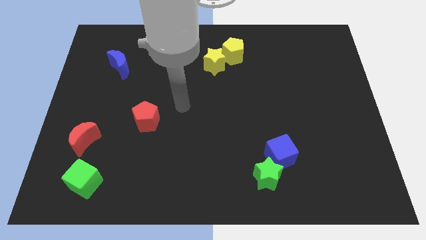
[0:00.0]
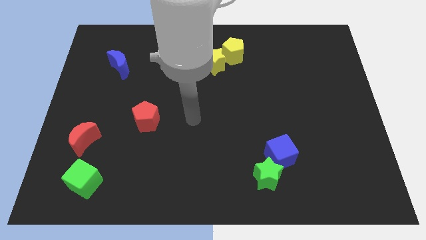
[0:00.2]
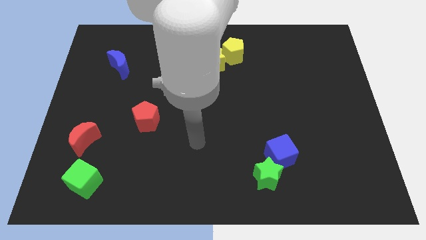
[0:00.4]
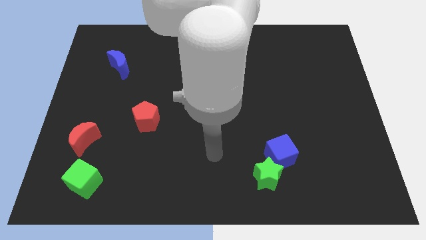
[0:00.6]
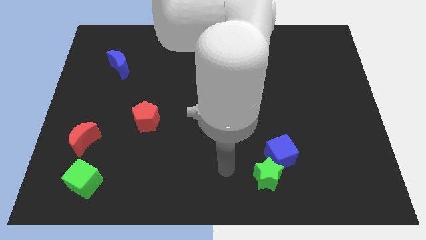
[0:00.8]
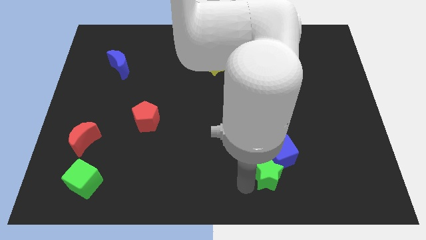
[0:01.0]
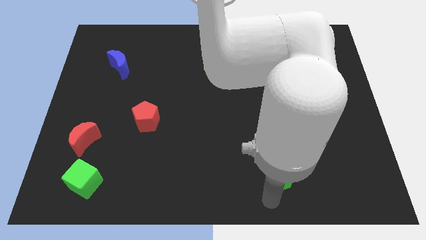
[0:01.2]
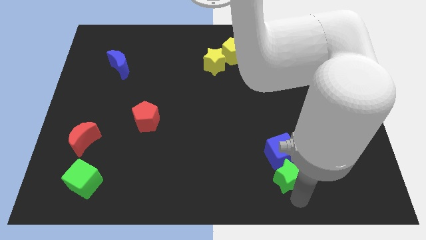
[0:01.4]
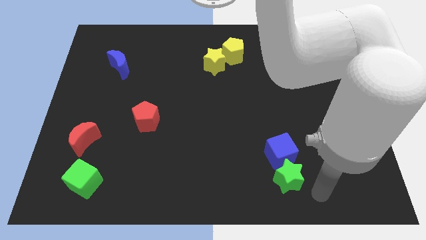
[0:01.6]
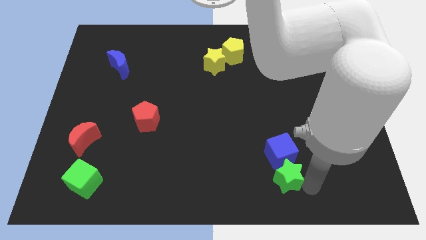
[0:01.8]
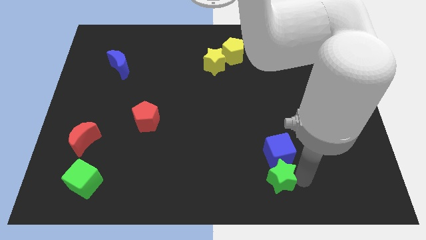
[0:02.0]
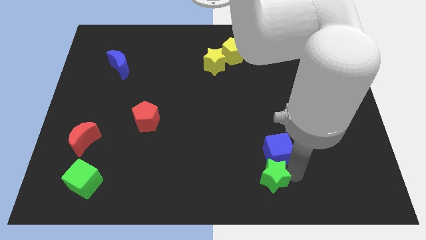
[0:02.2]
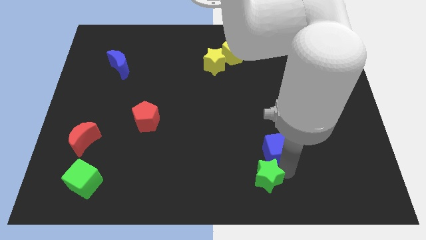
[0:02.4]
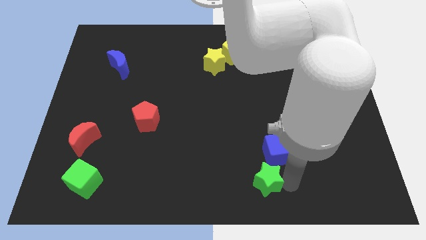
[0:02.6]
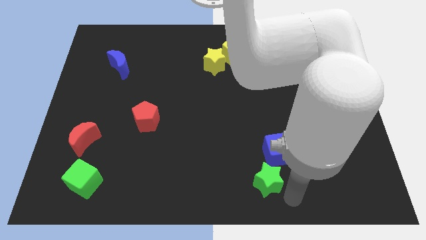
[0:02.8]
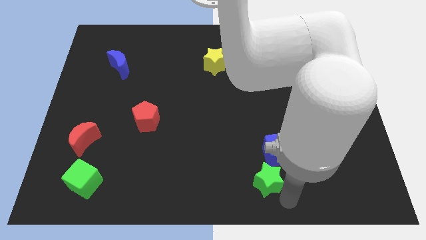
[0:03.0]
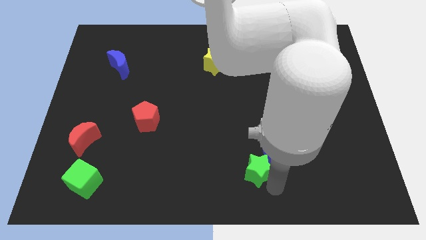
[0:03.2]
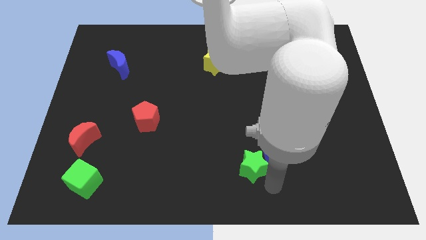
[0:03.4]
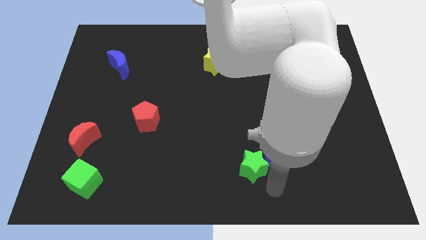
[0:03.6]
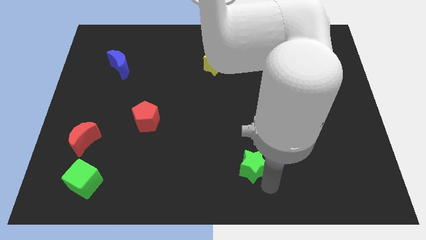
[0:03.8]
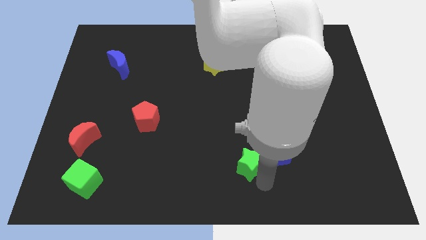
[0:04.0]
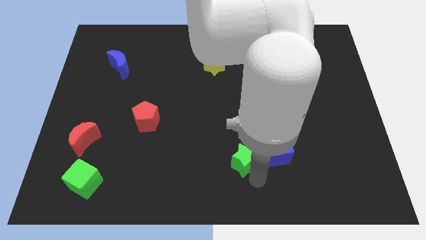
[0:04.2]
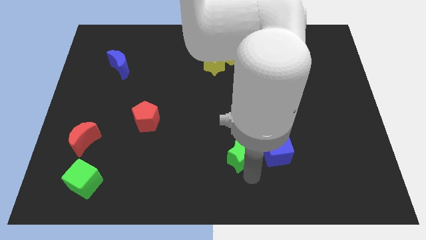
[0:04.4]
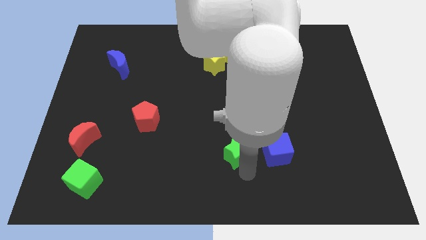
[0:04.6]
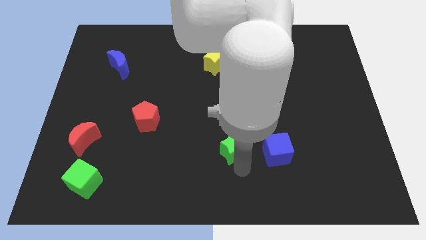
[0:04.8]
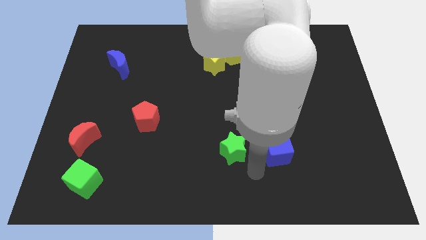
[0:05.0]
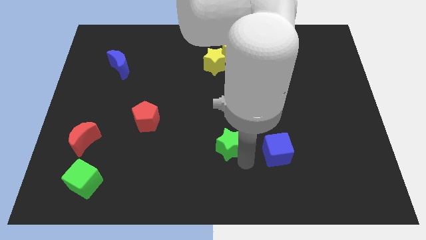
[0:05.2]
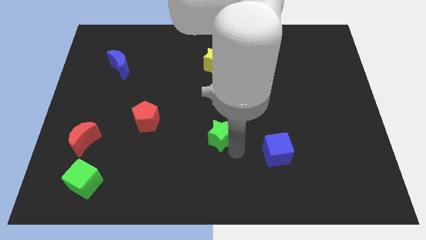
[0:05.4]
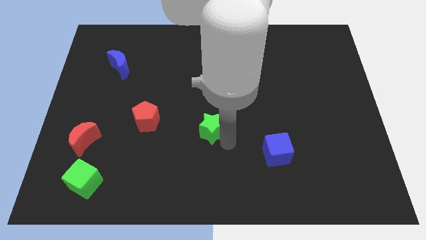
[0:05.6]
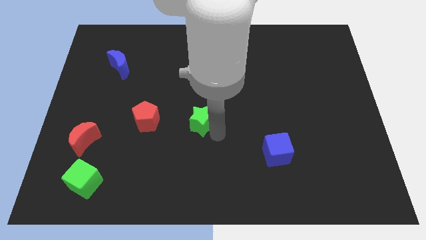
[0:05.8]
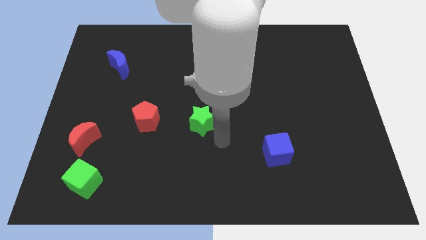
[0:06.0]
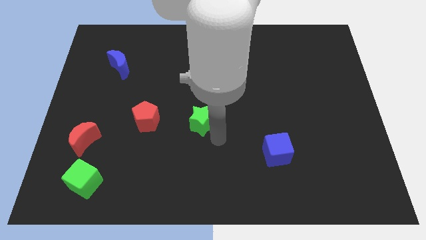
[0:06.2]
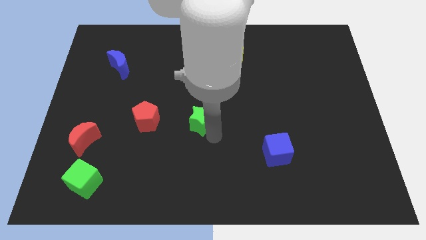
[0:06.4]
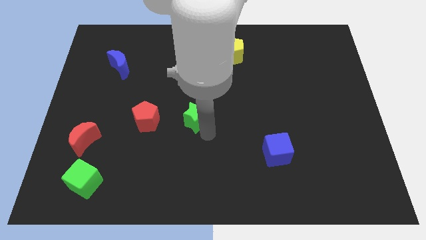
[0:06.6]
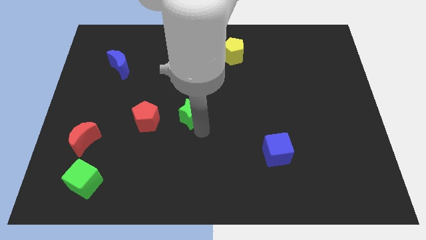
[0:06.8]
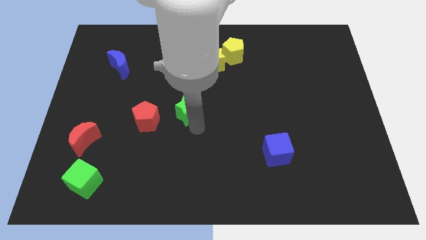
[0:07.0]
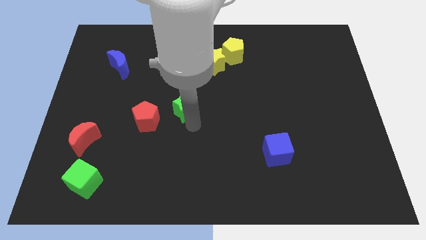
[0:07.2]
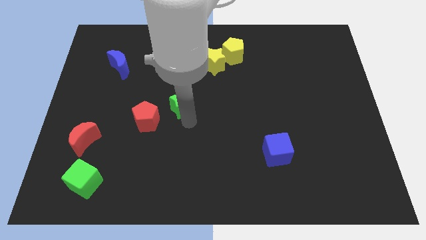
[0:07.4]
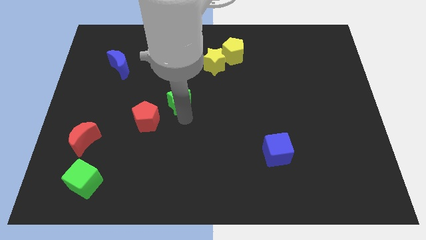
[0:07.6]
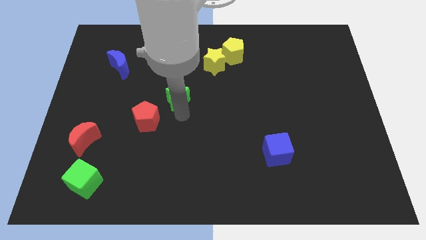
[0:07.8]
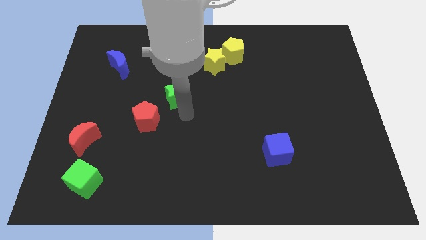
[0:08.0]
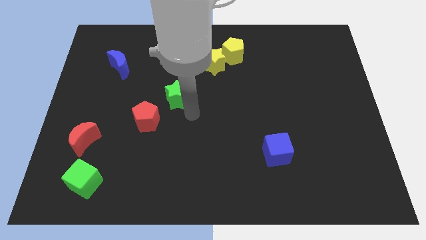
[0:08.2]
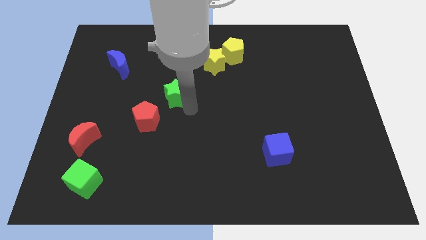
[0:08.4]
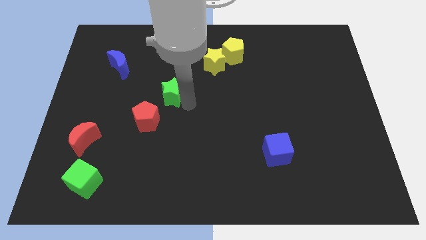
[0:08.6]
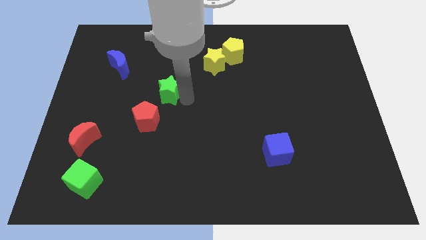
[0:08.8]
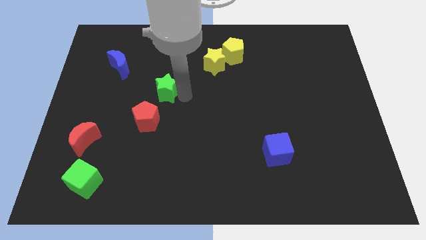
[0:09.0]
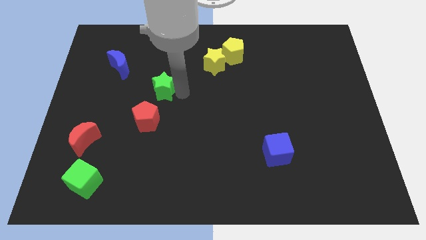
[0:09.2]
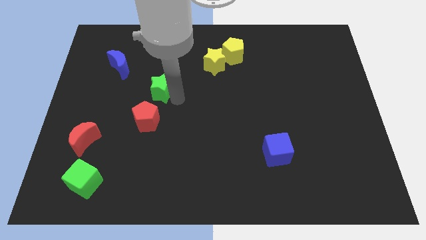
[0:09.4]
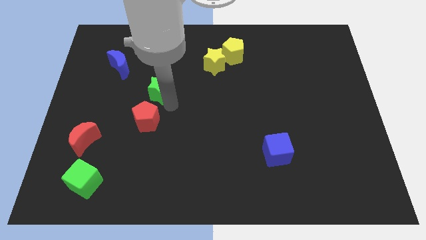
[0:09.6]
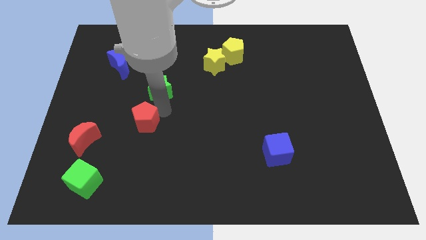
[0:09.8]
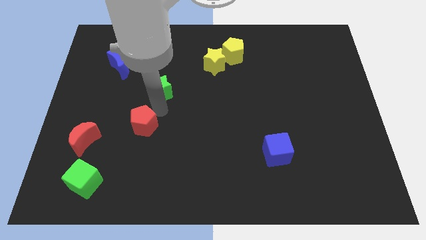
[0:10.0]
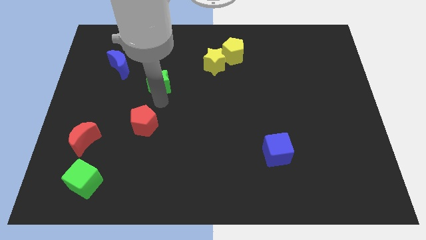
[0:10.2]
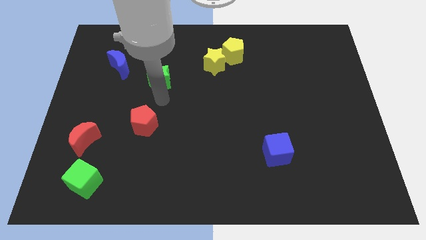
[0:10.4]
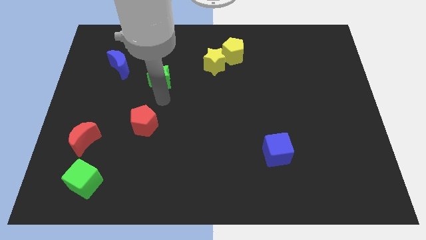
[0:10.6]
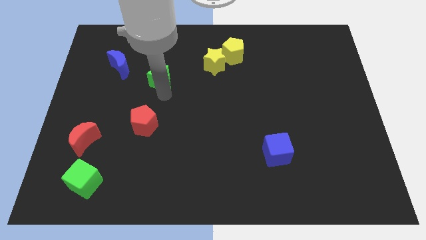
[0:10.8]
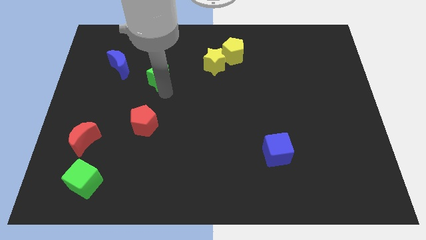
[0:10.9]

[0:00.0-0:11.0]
push the green star right of the blue moon

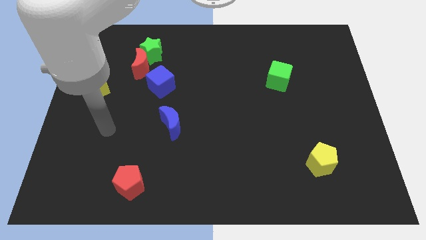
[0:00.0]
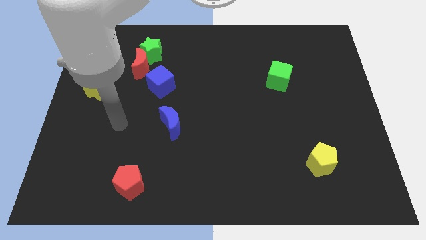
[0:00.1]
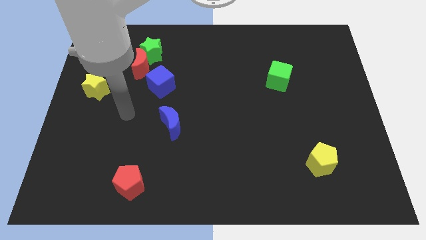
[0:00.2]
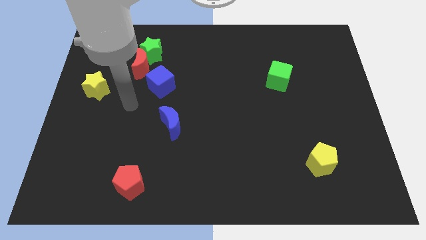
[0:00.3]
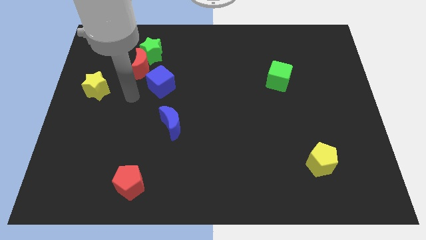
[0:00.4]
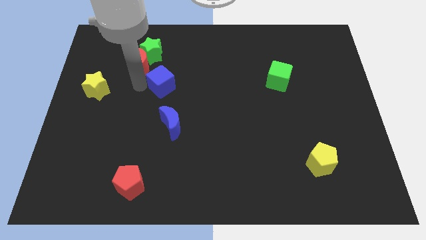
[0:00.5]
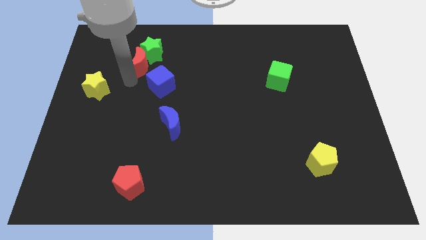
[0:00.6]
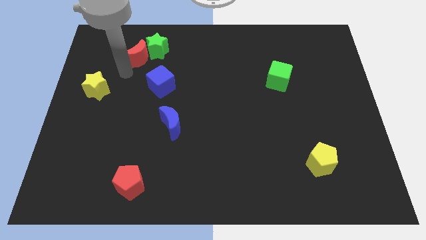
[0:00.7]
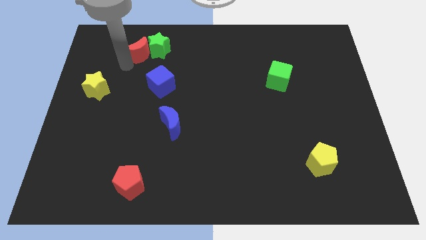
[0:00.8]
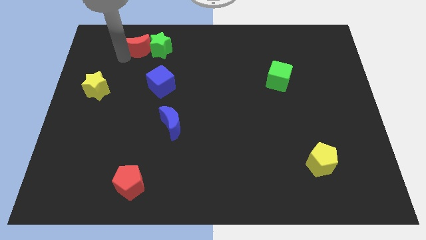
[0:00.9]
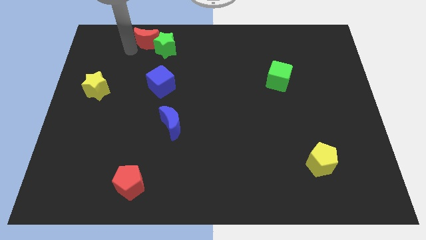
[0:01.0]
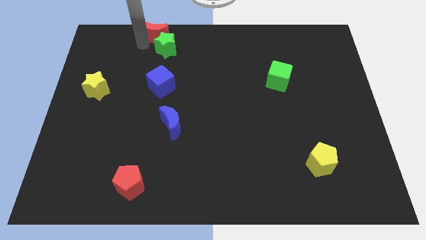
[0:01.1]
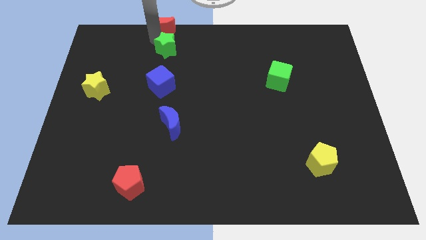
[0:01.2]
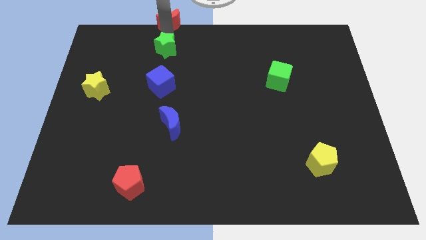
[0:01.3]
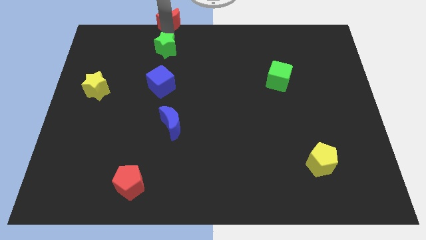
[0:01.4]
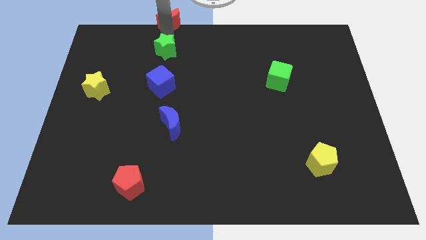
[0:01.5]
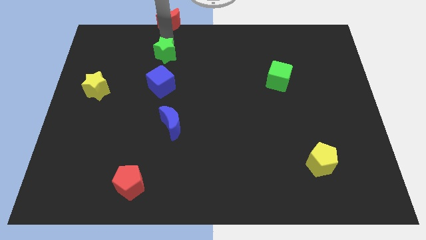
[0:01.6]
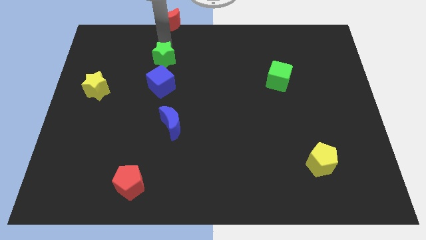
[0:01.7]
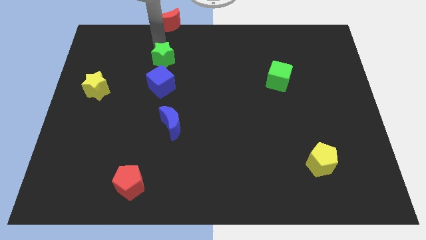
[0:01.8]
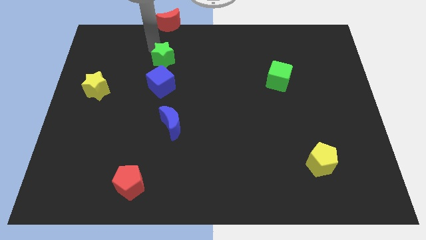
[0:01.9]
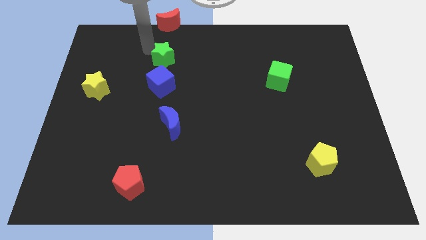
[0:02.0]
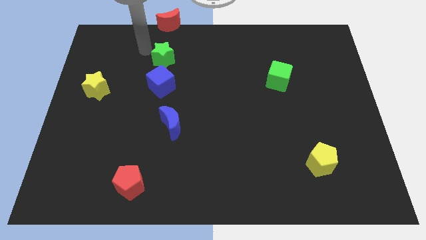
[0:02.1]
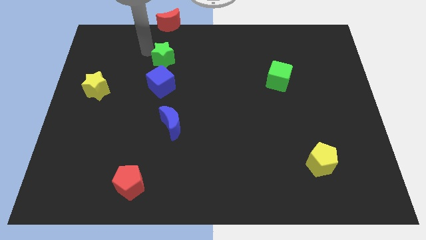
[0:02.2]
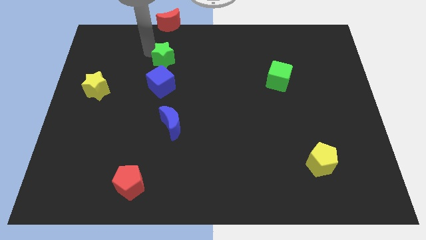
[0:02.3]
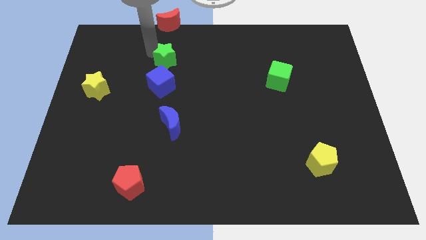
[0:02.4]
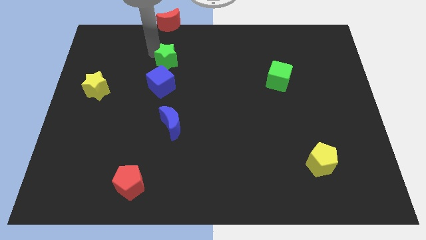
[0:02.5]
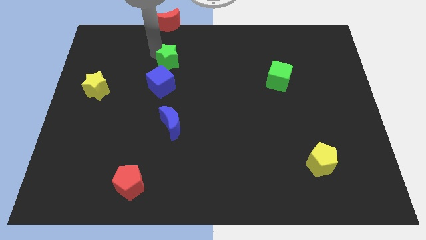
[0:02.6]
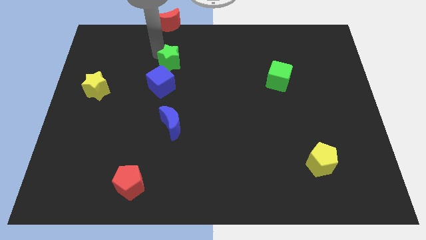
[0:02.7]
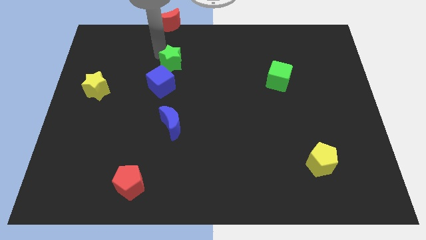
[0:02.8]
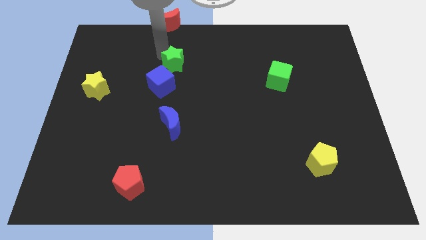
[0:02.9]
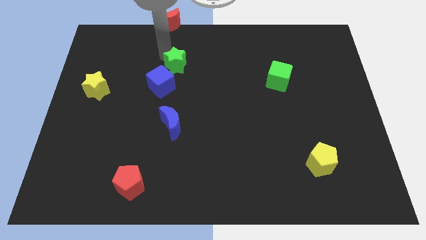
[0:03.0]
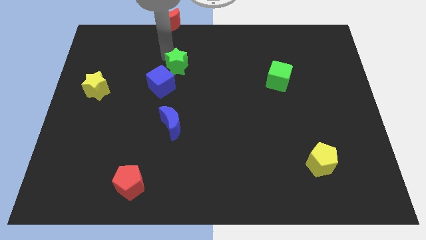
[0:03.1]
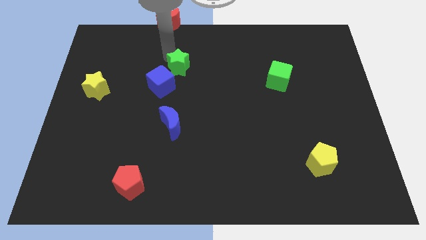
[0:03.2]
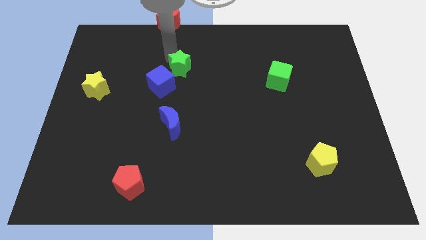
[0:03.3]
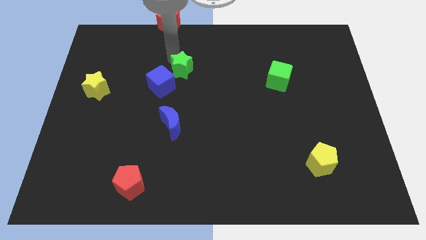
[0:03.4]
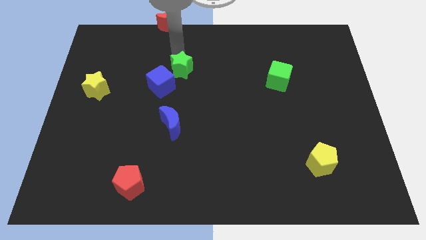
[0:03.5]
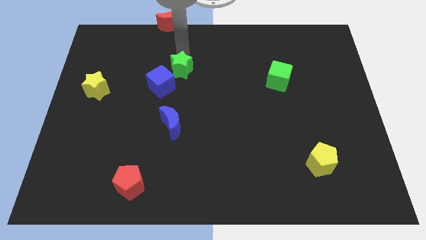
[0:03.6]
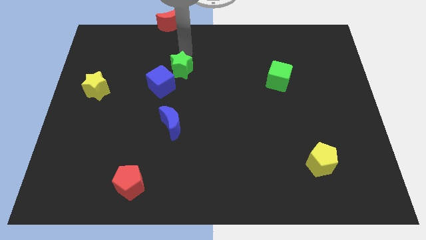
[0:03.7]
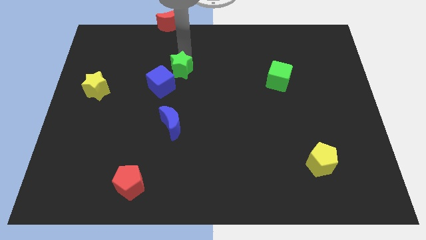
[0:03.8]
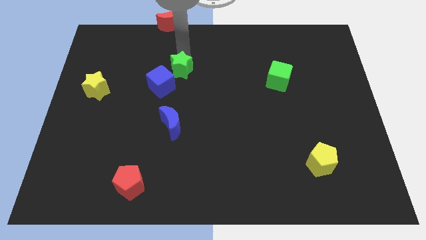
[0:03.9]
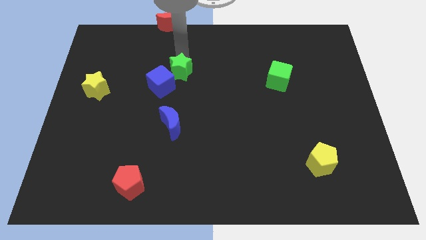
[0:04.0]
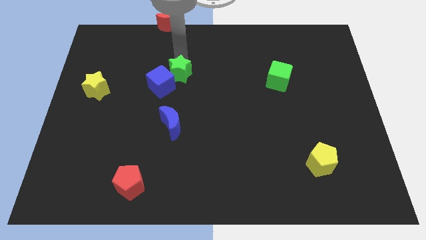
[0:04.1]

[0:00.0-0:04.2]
push the green star to the top of the blue moon
